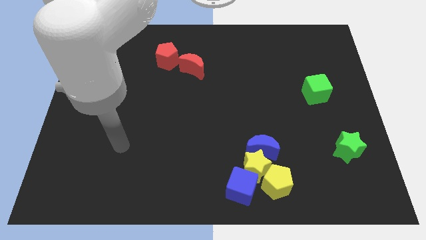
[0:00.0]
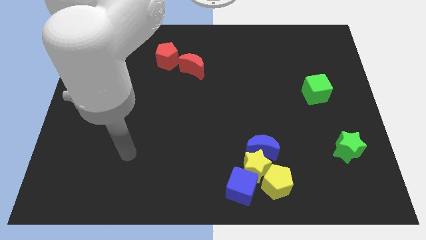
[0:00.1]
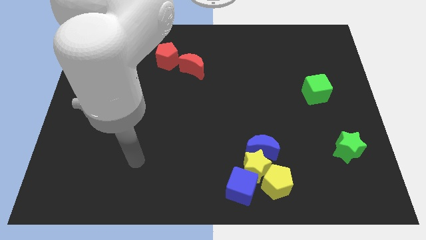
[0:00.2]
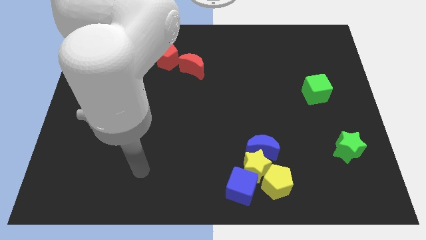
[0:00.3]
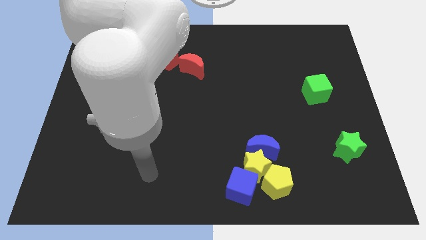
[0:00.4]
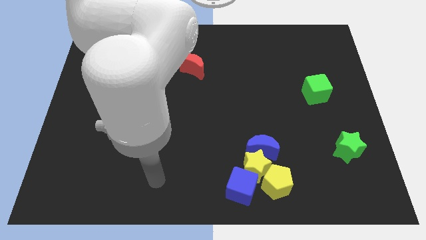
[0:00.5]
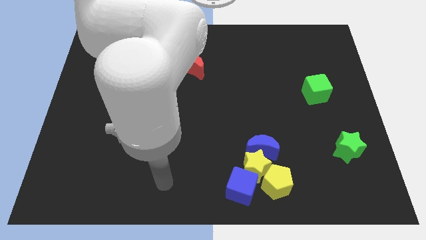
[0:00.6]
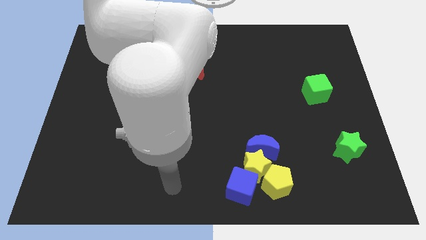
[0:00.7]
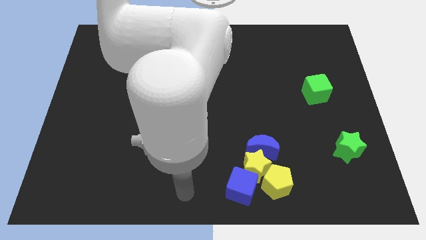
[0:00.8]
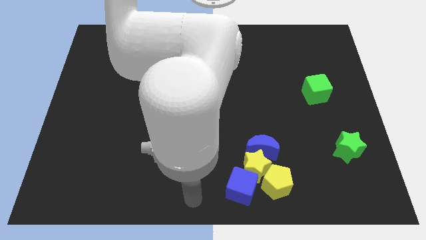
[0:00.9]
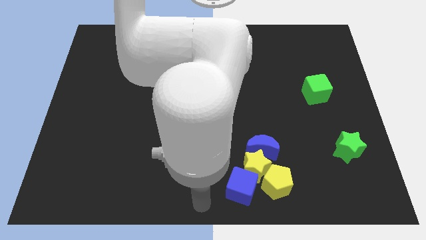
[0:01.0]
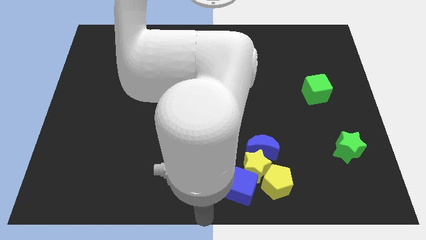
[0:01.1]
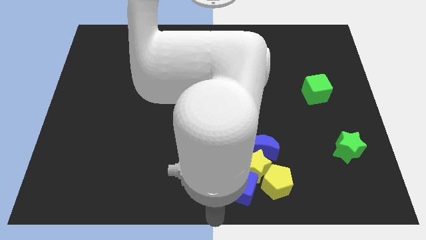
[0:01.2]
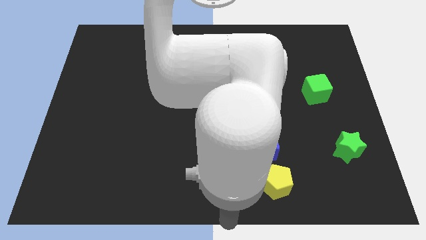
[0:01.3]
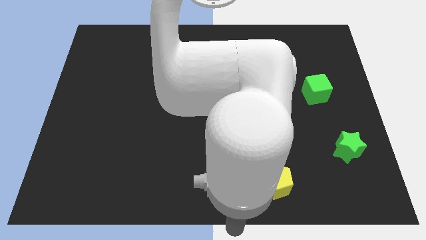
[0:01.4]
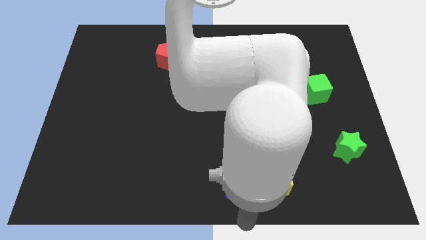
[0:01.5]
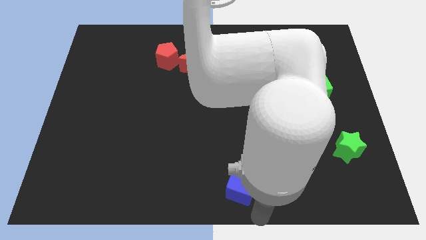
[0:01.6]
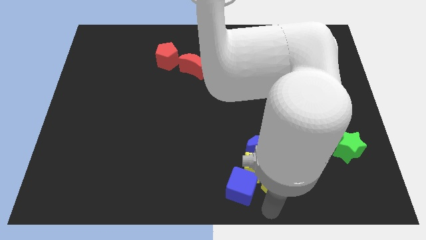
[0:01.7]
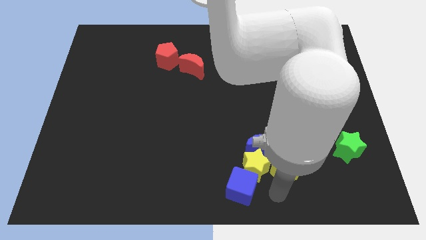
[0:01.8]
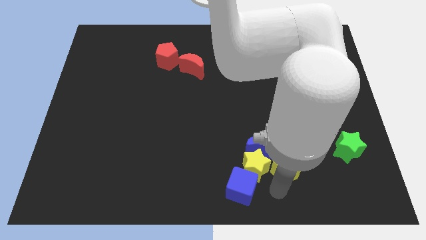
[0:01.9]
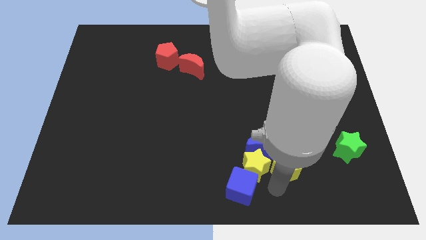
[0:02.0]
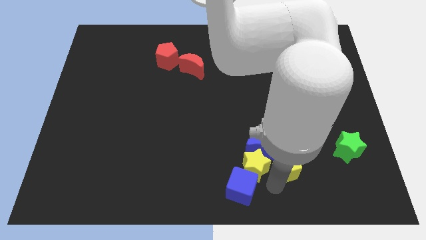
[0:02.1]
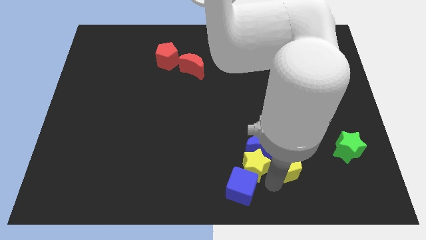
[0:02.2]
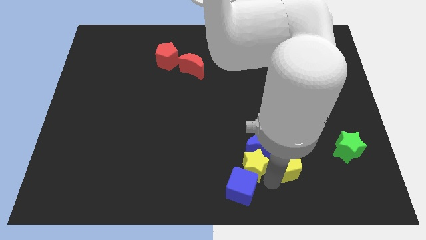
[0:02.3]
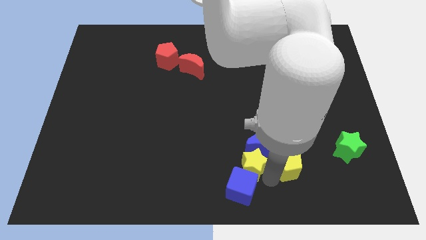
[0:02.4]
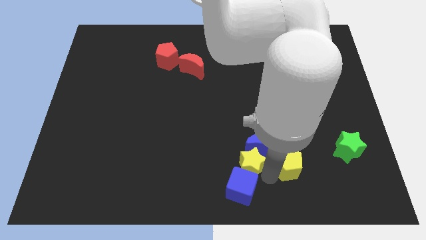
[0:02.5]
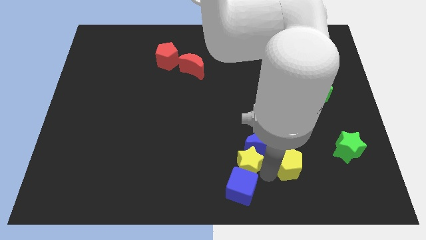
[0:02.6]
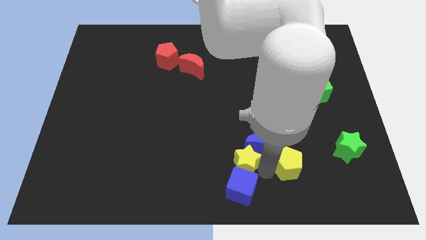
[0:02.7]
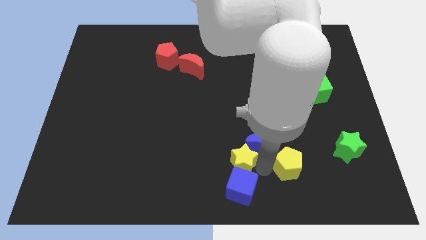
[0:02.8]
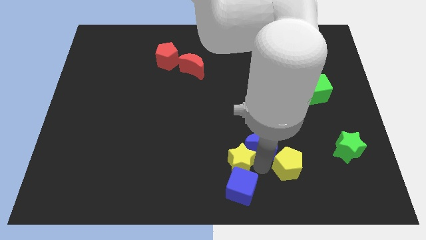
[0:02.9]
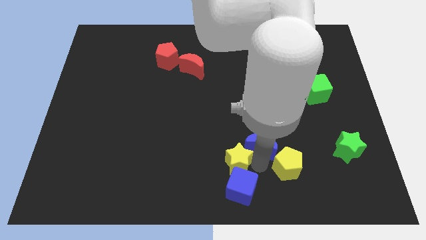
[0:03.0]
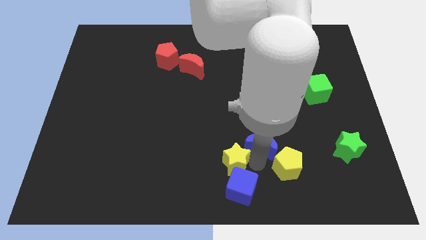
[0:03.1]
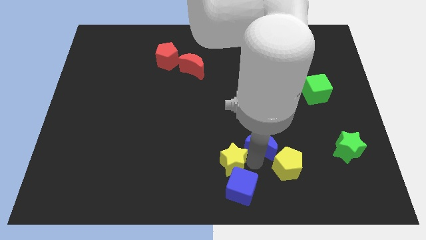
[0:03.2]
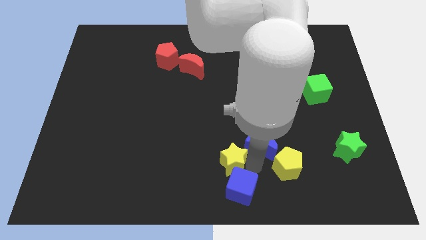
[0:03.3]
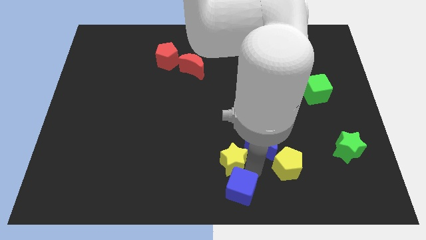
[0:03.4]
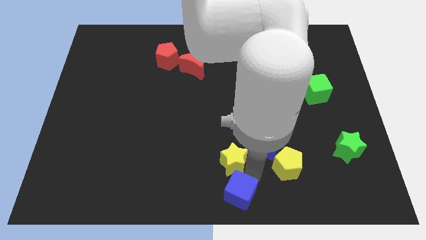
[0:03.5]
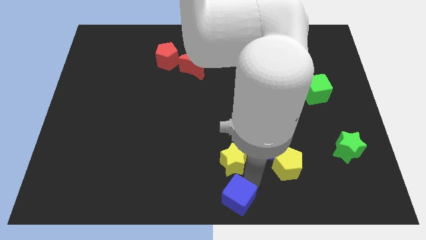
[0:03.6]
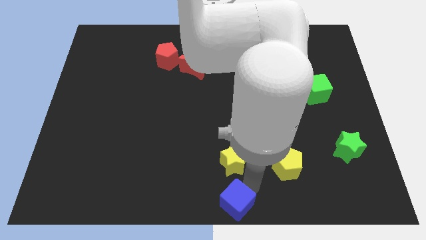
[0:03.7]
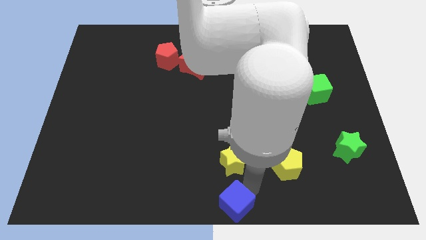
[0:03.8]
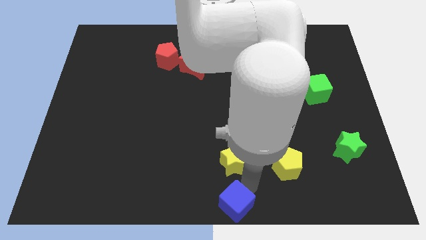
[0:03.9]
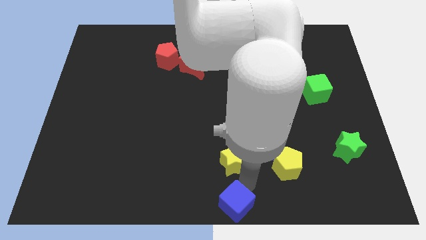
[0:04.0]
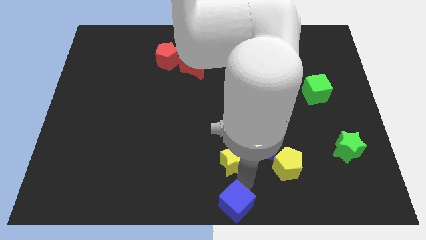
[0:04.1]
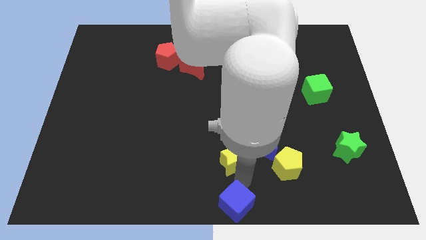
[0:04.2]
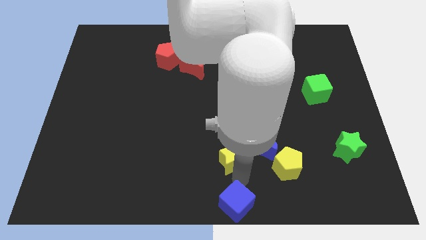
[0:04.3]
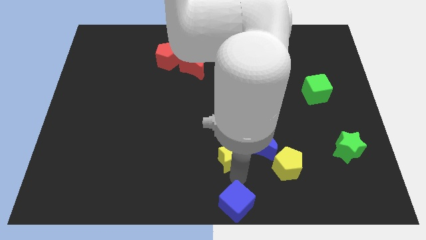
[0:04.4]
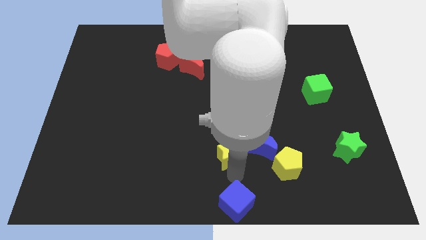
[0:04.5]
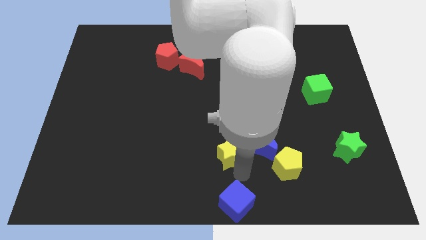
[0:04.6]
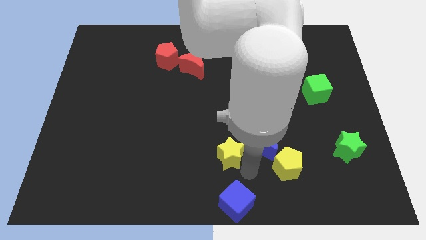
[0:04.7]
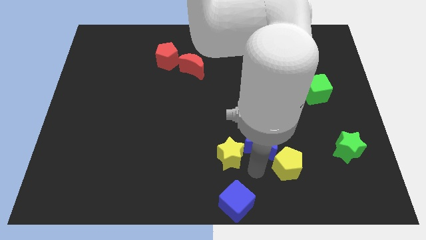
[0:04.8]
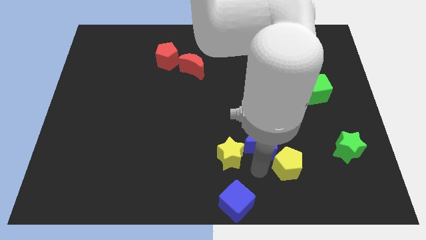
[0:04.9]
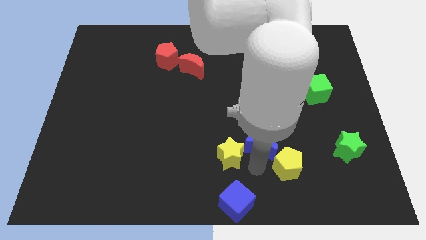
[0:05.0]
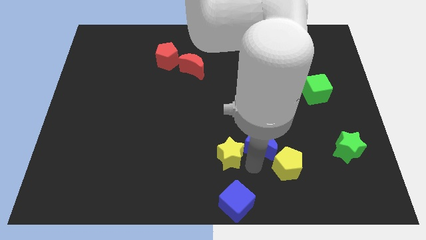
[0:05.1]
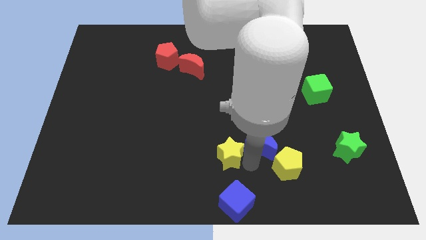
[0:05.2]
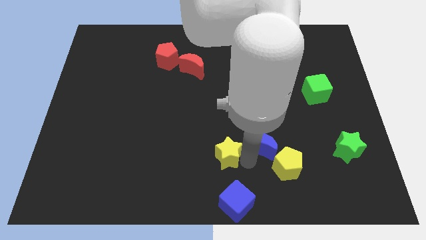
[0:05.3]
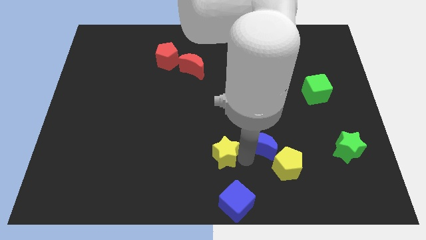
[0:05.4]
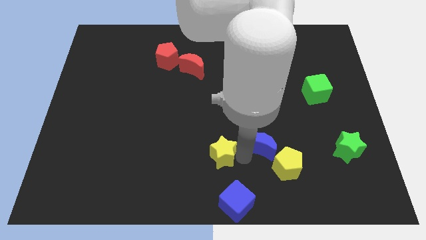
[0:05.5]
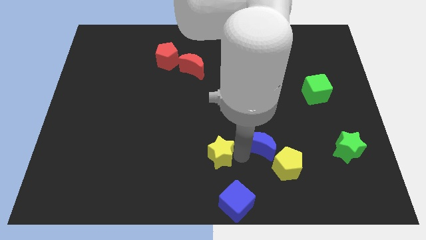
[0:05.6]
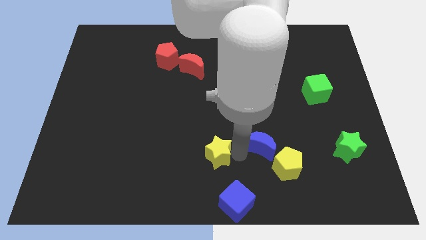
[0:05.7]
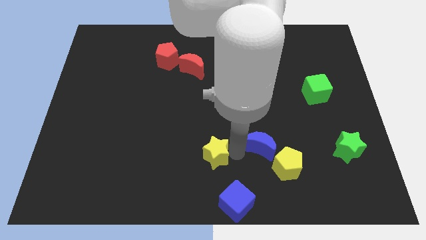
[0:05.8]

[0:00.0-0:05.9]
separate the yellow star from the yellow pentagon, blue moon, and blue cube

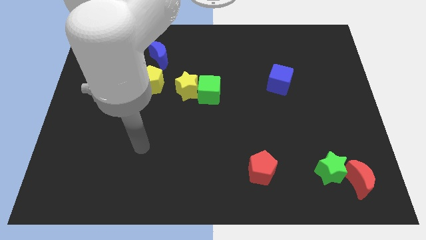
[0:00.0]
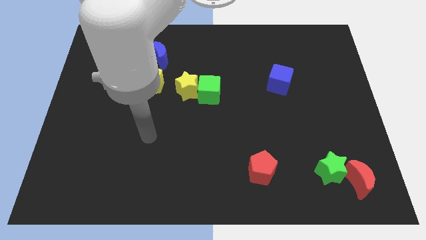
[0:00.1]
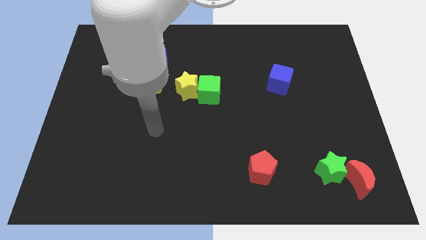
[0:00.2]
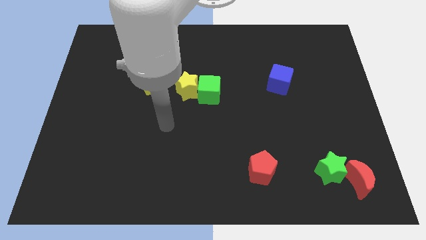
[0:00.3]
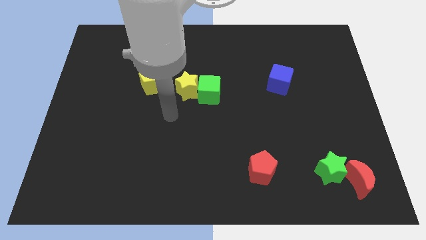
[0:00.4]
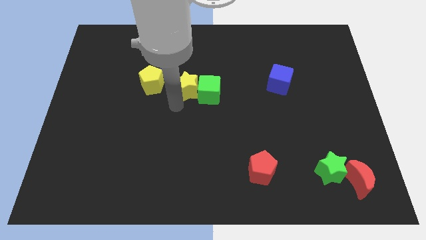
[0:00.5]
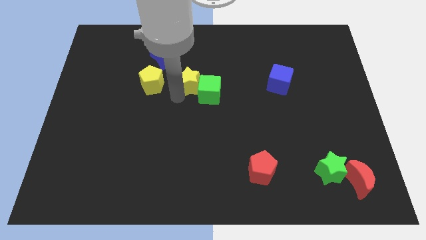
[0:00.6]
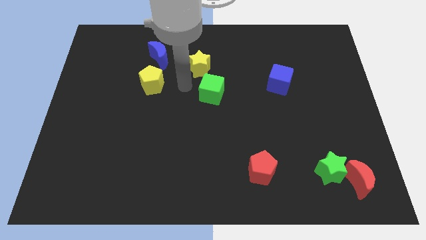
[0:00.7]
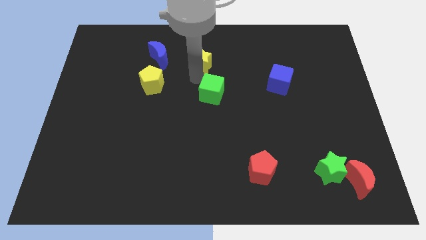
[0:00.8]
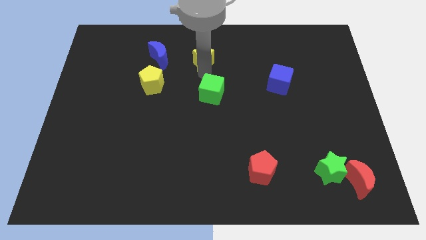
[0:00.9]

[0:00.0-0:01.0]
separate the green cube from the yellow star

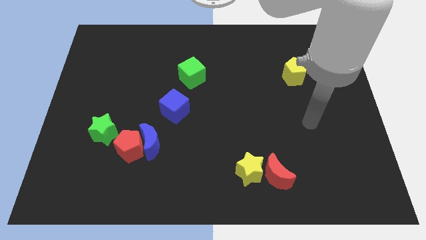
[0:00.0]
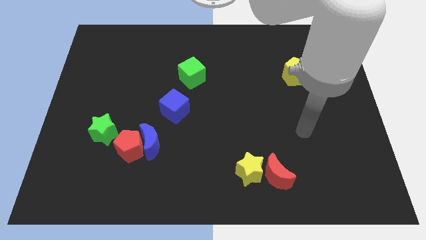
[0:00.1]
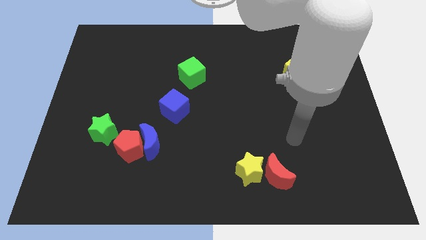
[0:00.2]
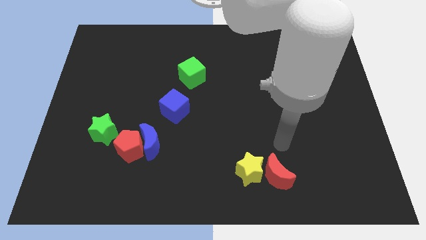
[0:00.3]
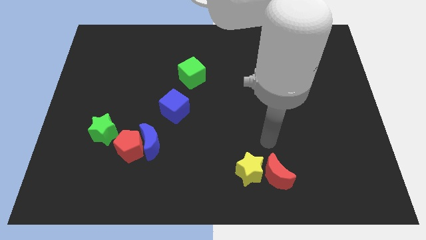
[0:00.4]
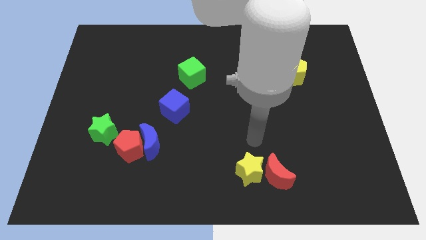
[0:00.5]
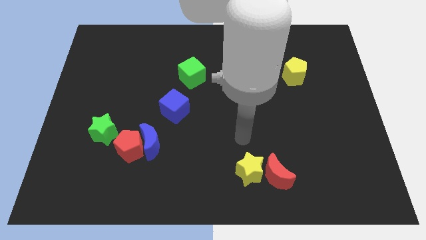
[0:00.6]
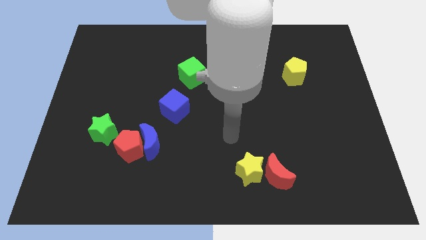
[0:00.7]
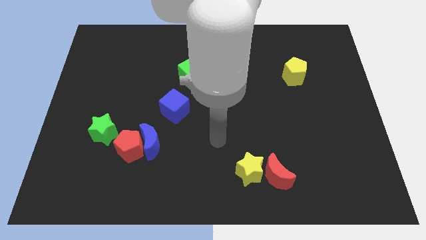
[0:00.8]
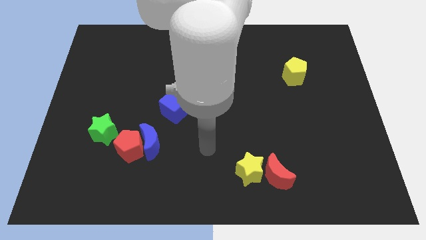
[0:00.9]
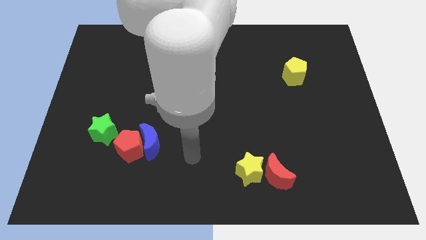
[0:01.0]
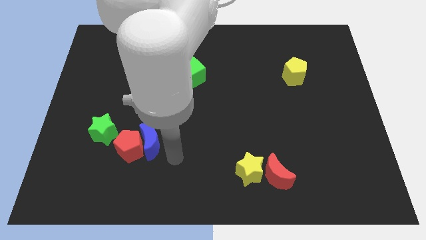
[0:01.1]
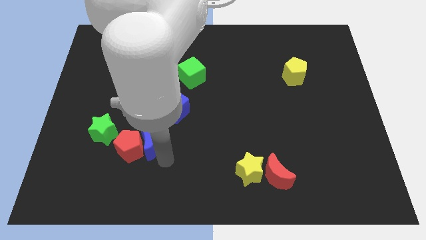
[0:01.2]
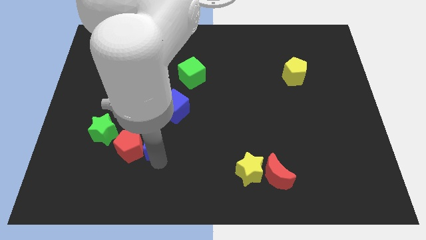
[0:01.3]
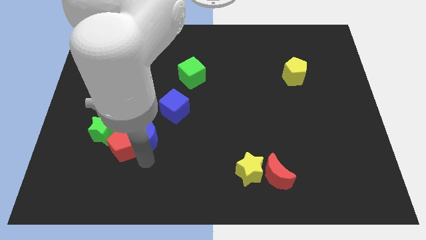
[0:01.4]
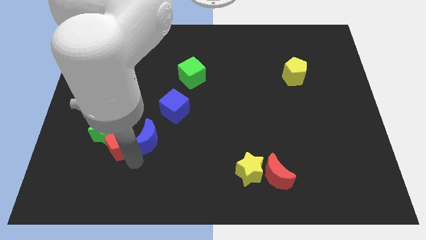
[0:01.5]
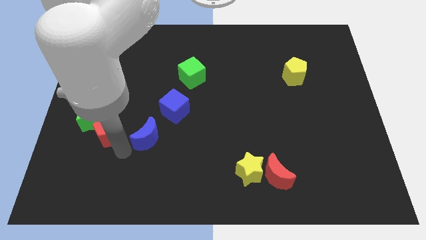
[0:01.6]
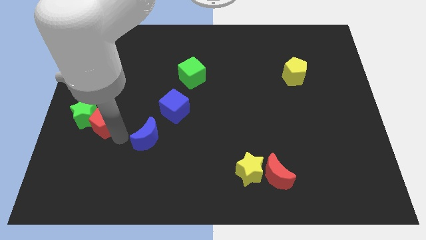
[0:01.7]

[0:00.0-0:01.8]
separate the blue moon from the red pentagon

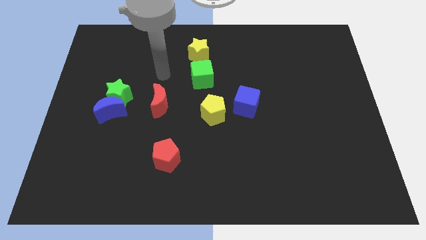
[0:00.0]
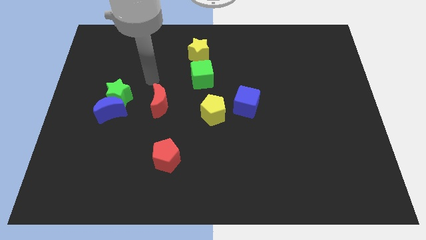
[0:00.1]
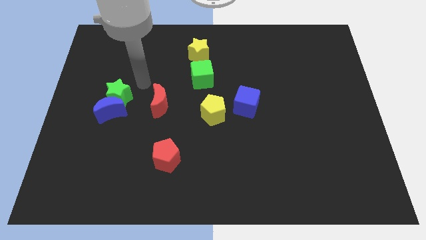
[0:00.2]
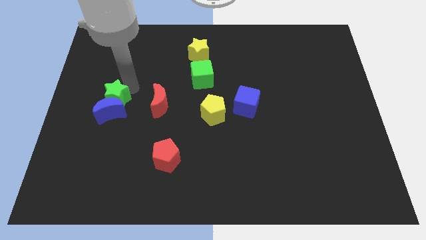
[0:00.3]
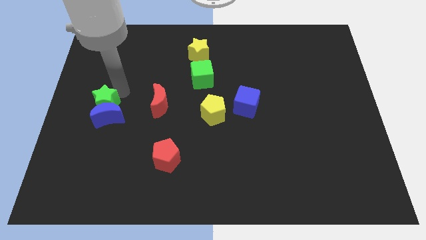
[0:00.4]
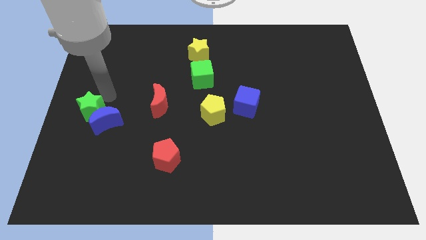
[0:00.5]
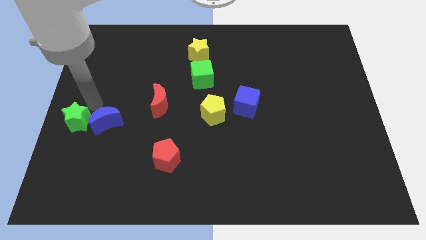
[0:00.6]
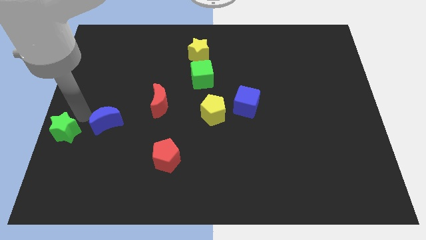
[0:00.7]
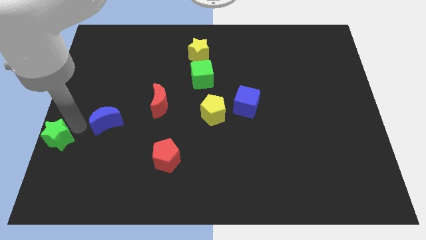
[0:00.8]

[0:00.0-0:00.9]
pull the blue moon apart from the green star
